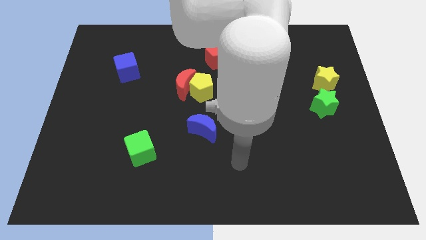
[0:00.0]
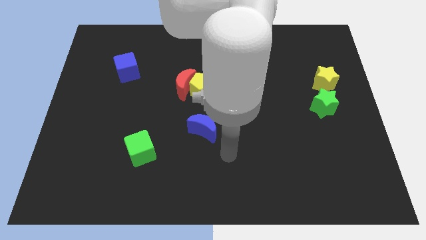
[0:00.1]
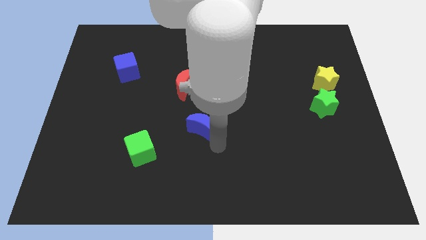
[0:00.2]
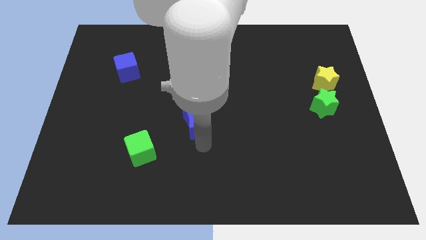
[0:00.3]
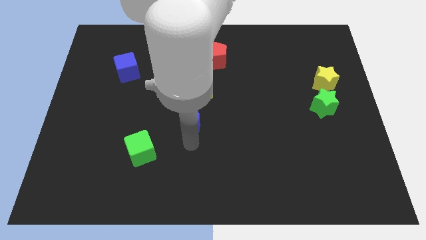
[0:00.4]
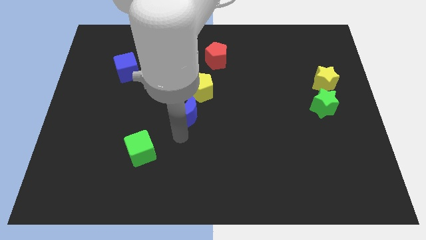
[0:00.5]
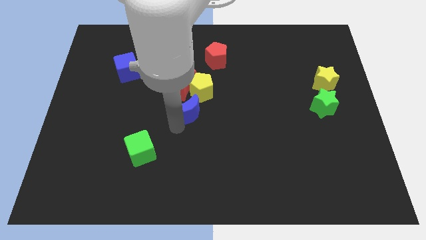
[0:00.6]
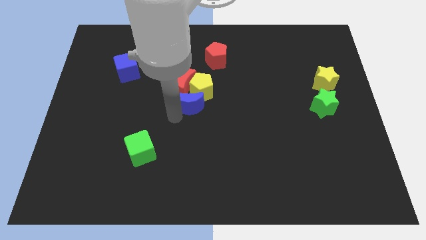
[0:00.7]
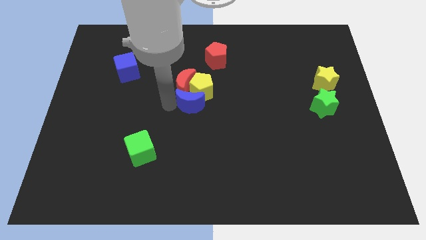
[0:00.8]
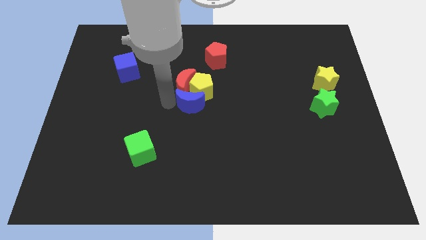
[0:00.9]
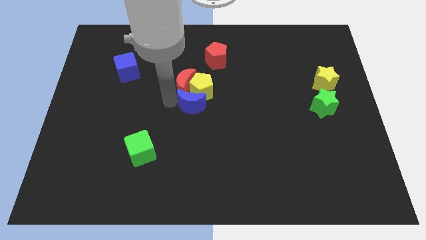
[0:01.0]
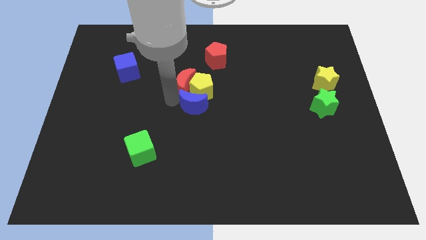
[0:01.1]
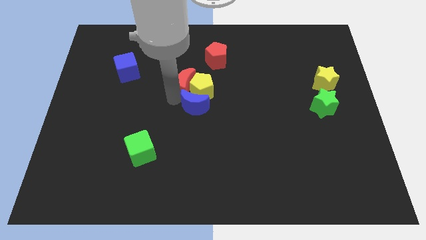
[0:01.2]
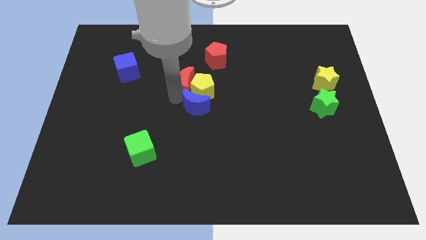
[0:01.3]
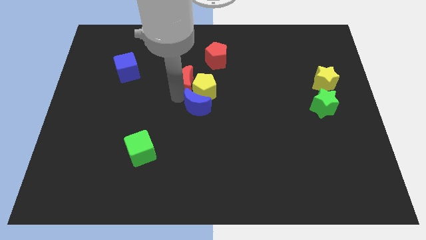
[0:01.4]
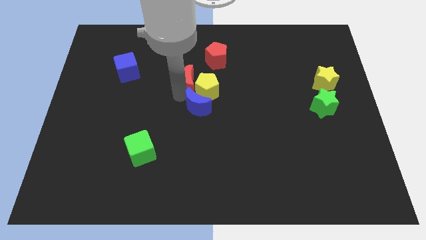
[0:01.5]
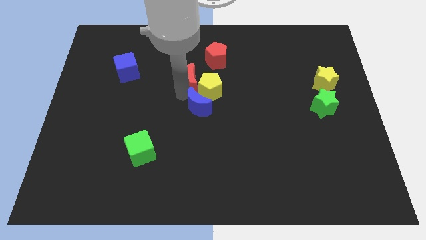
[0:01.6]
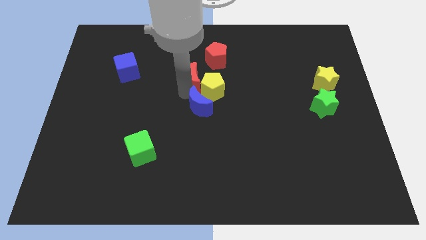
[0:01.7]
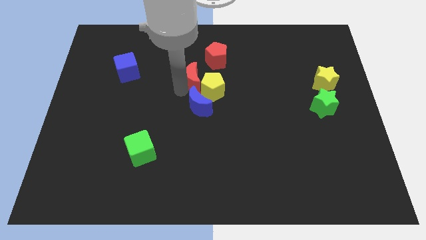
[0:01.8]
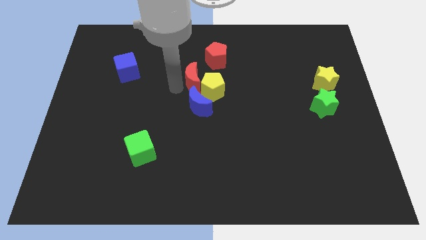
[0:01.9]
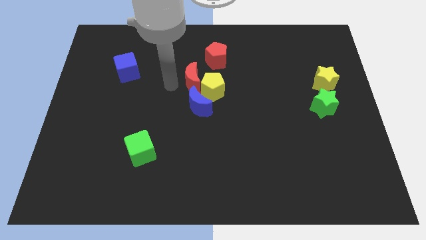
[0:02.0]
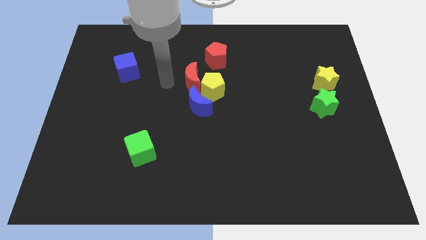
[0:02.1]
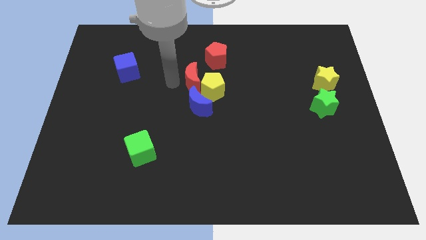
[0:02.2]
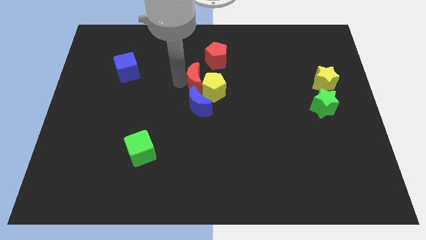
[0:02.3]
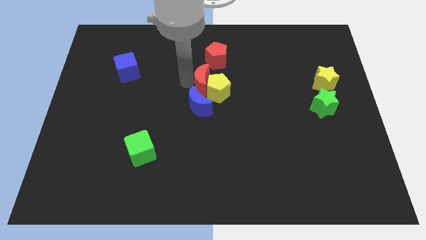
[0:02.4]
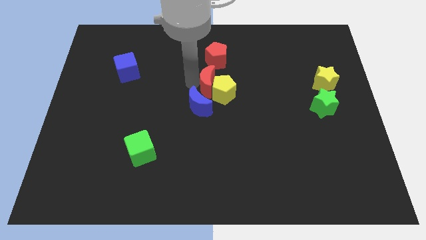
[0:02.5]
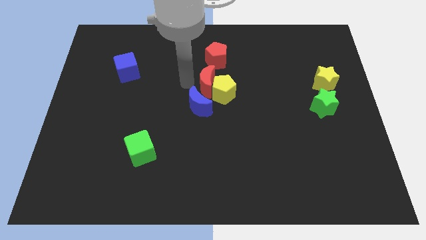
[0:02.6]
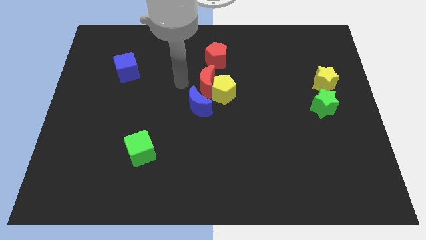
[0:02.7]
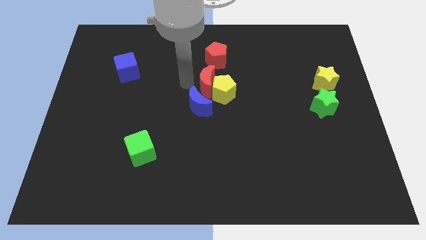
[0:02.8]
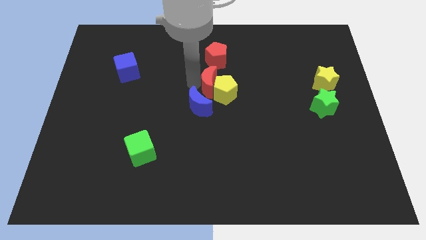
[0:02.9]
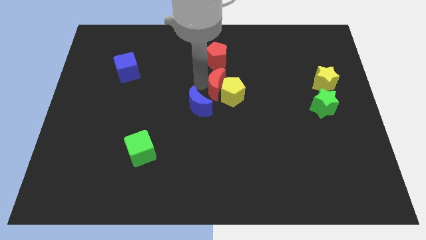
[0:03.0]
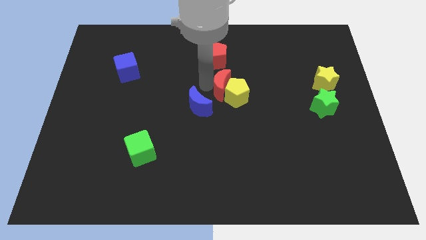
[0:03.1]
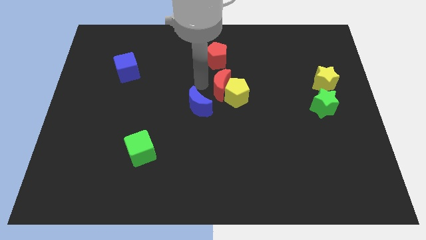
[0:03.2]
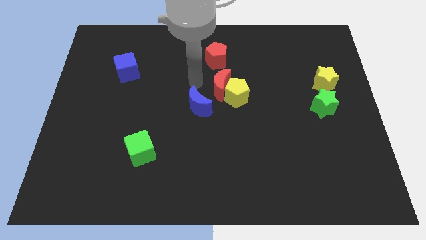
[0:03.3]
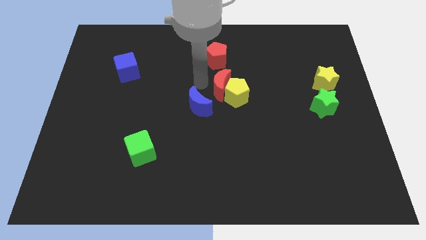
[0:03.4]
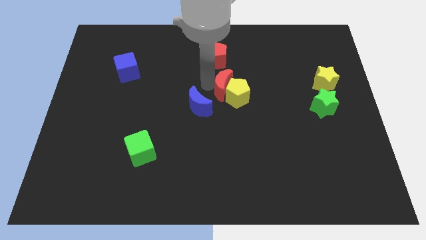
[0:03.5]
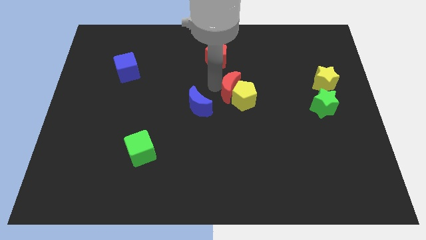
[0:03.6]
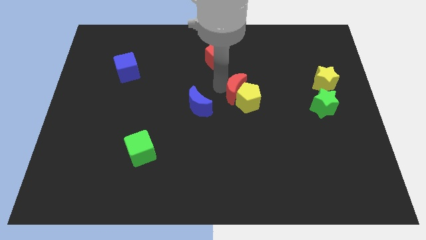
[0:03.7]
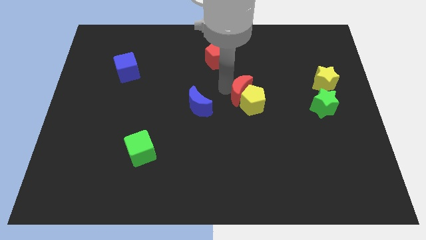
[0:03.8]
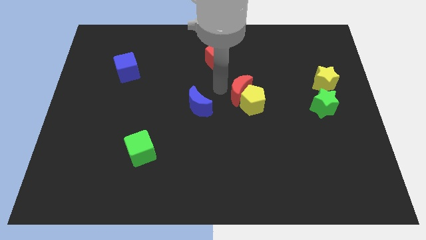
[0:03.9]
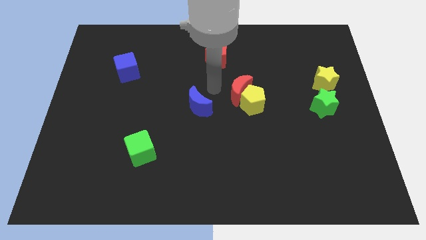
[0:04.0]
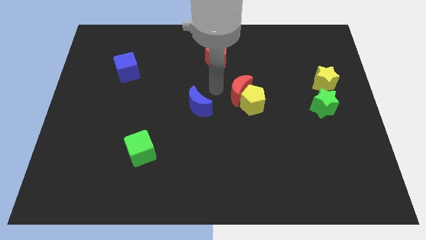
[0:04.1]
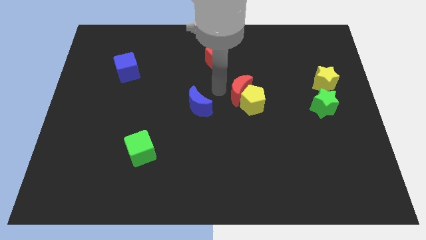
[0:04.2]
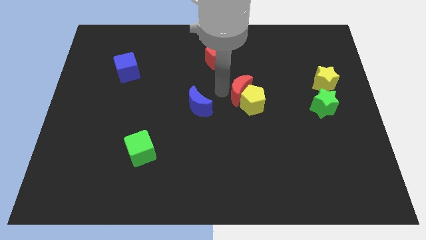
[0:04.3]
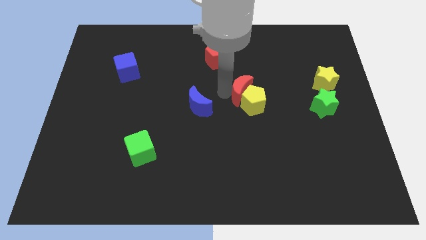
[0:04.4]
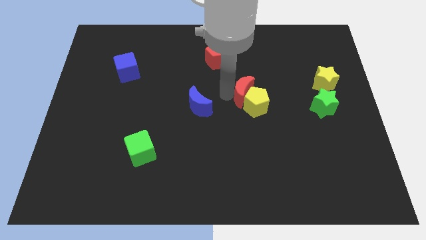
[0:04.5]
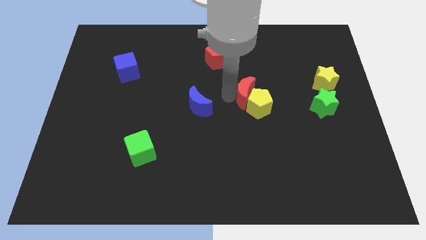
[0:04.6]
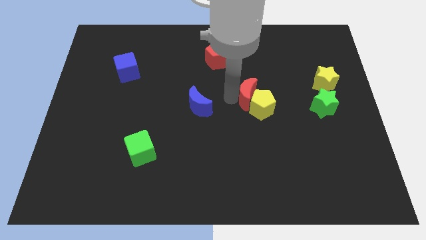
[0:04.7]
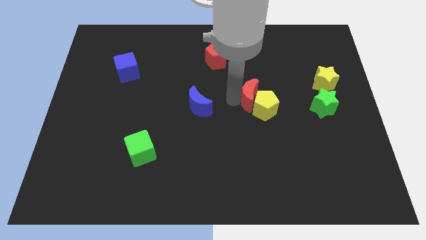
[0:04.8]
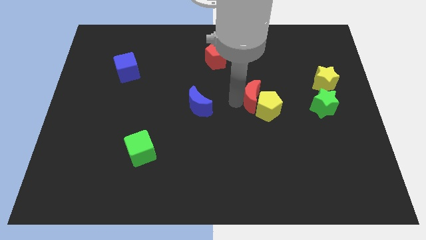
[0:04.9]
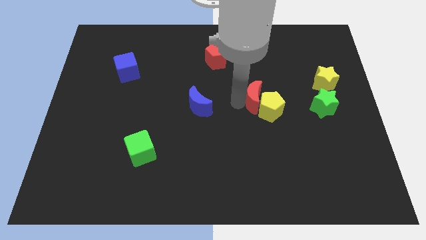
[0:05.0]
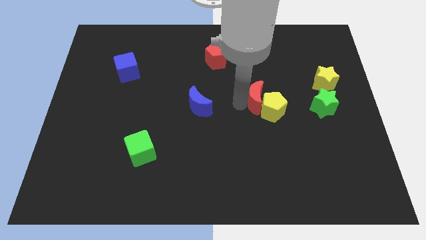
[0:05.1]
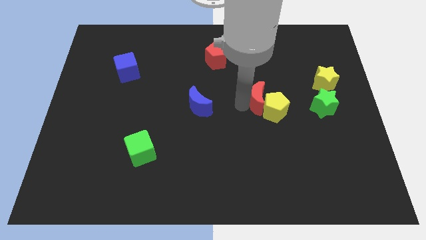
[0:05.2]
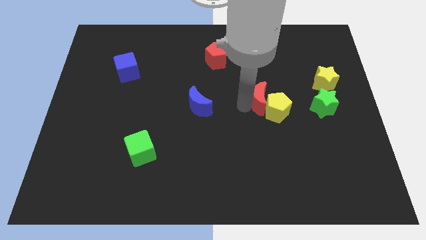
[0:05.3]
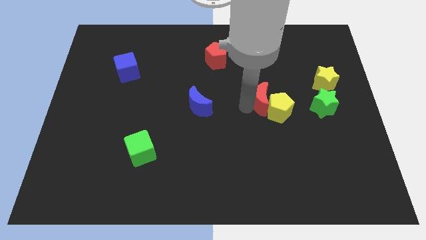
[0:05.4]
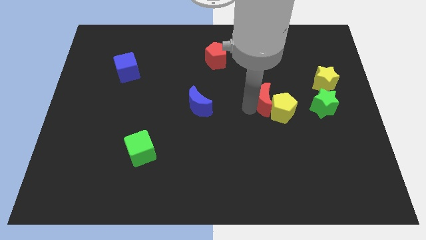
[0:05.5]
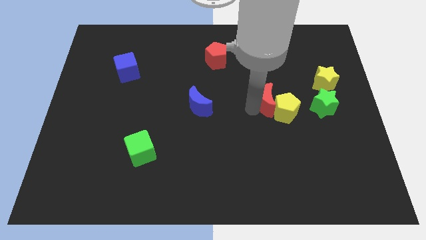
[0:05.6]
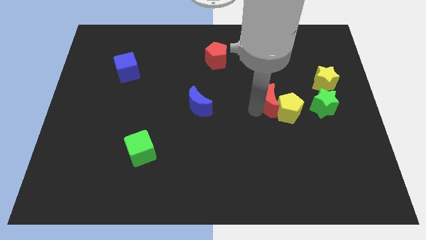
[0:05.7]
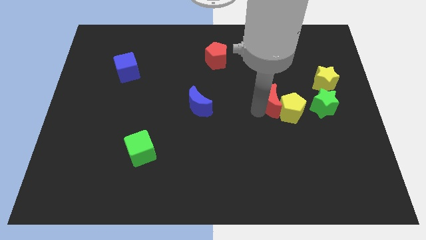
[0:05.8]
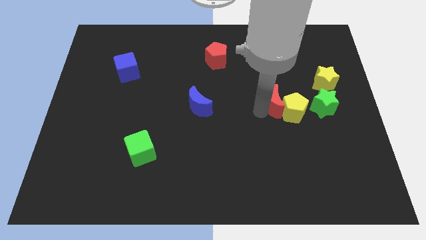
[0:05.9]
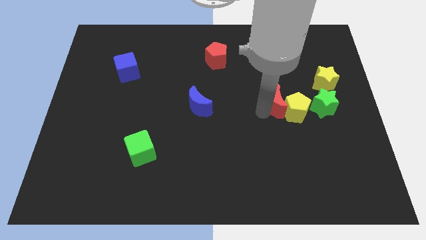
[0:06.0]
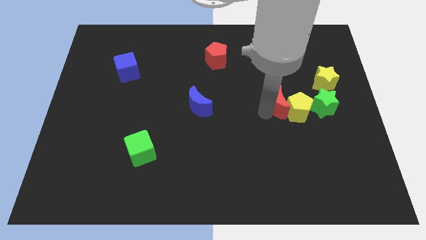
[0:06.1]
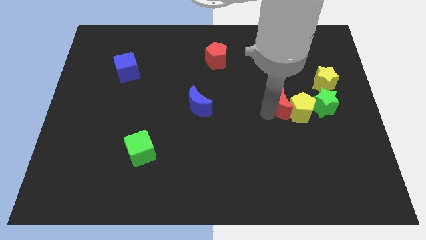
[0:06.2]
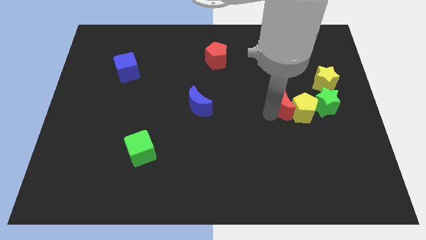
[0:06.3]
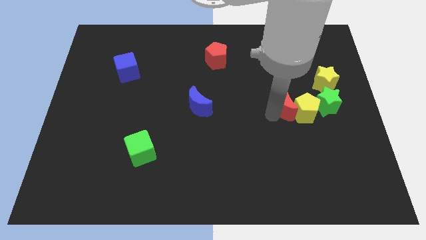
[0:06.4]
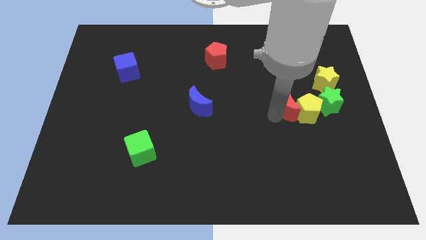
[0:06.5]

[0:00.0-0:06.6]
move the red moon to the bottom left of the yellow star
